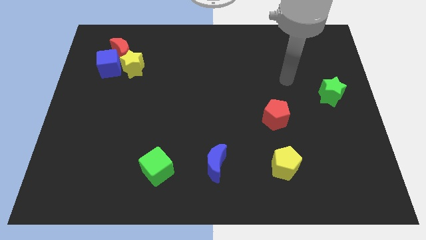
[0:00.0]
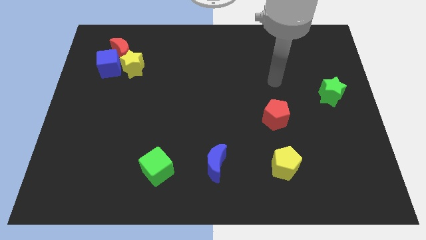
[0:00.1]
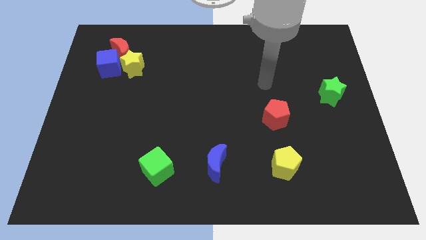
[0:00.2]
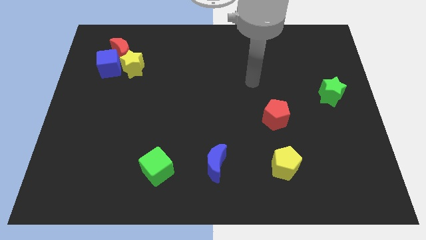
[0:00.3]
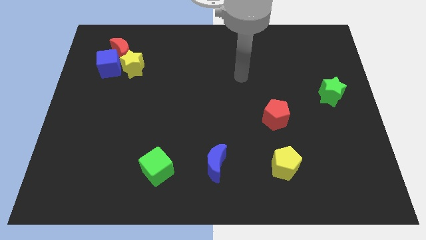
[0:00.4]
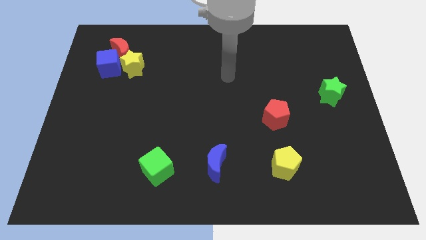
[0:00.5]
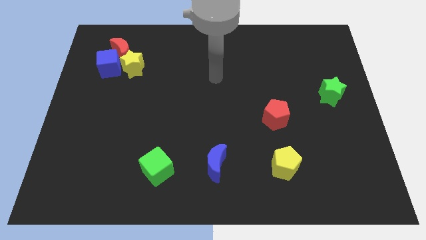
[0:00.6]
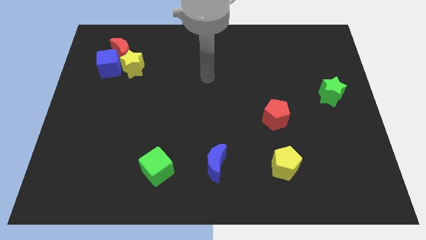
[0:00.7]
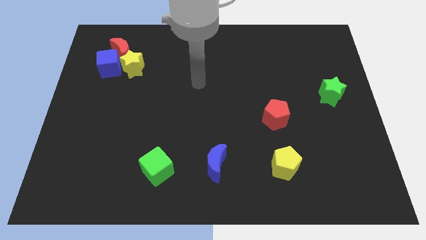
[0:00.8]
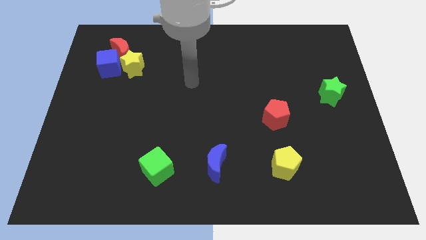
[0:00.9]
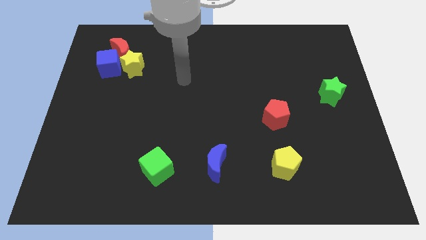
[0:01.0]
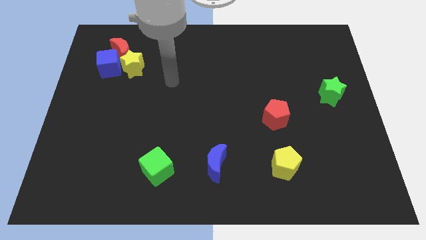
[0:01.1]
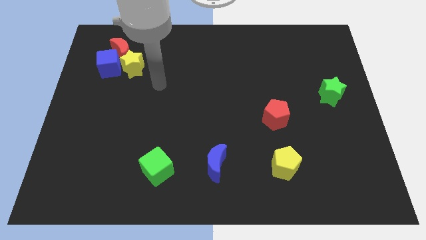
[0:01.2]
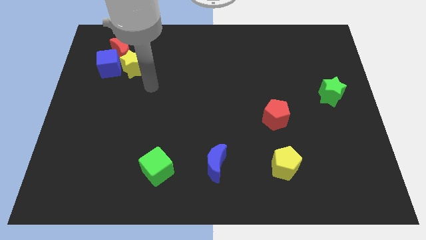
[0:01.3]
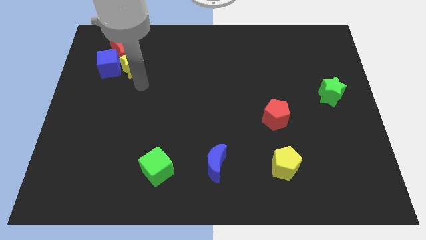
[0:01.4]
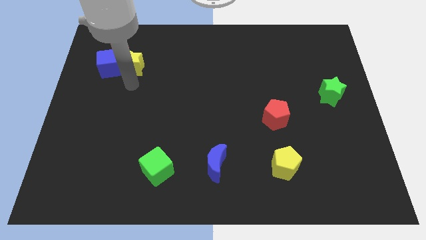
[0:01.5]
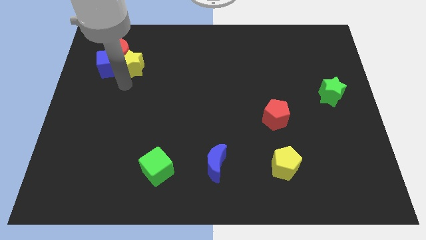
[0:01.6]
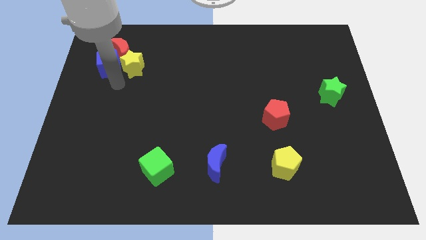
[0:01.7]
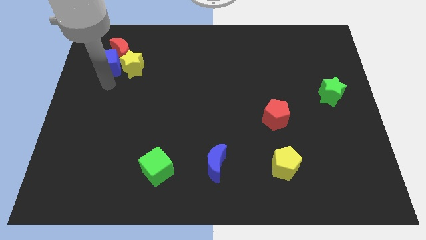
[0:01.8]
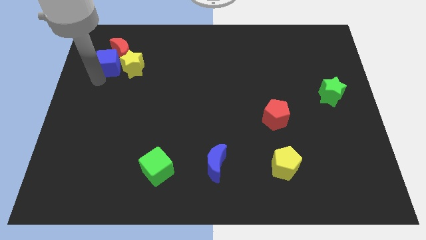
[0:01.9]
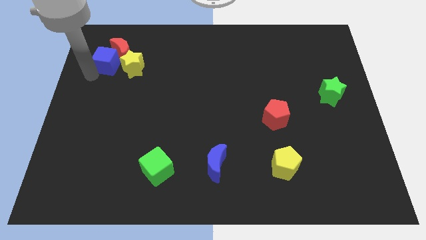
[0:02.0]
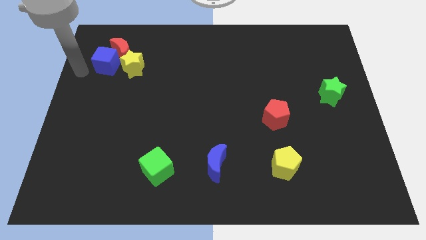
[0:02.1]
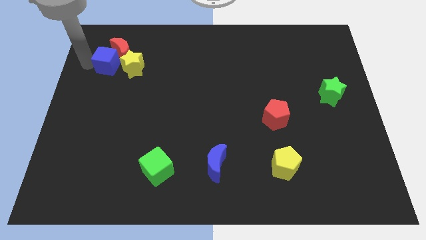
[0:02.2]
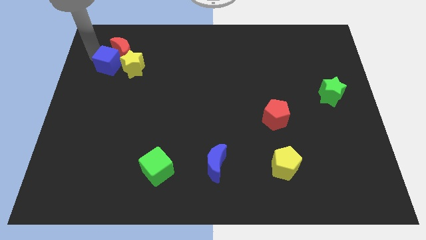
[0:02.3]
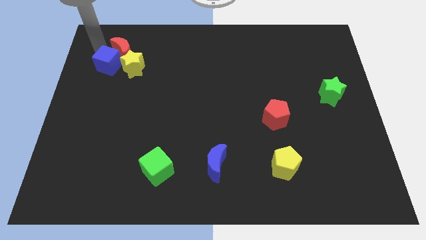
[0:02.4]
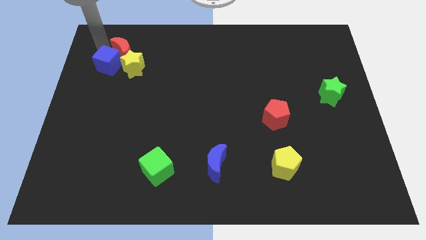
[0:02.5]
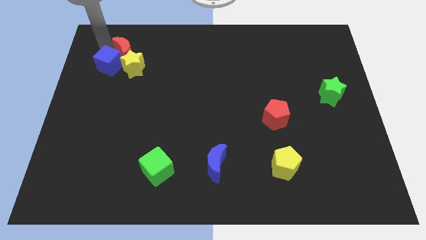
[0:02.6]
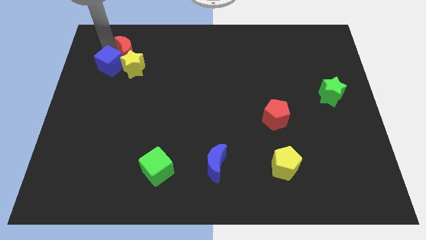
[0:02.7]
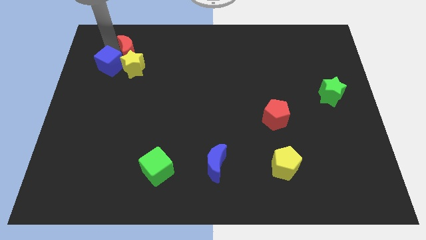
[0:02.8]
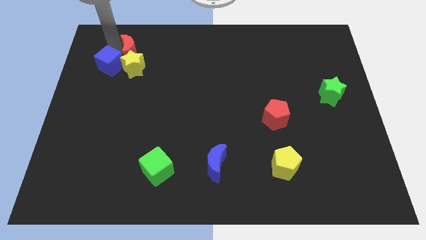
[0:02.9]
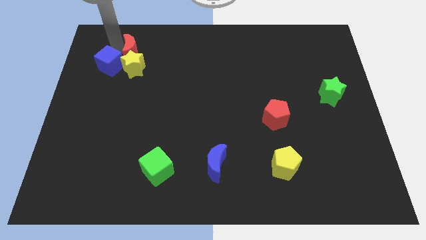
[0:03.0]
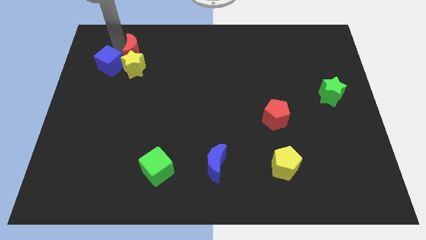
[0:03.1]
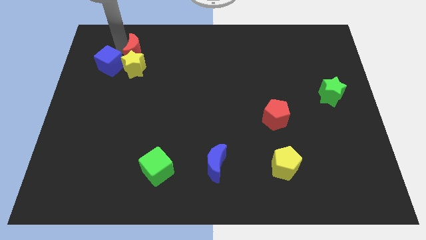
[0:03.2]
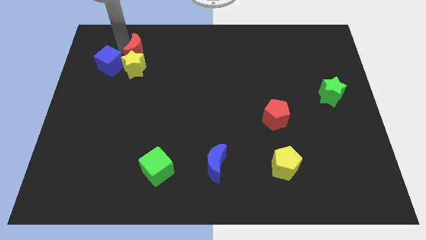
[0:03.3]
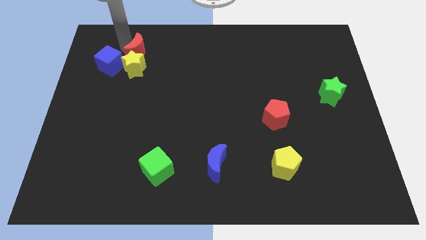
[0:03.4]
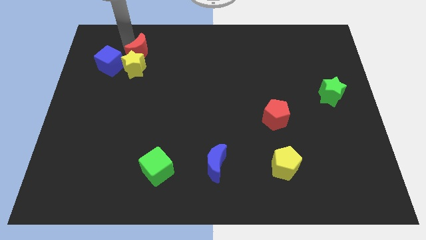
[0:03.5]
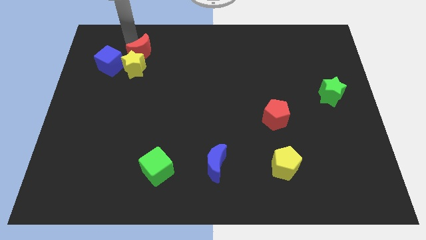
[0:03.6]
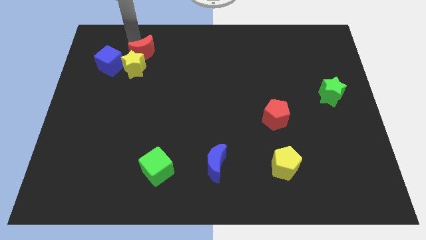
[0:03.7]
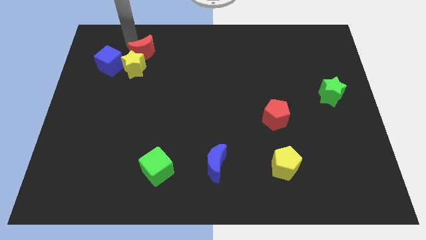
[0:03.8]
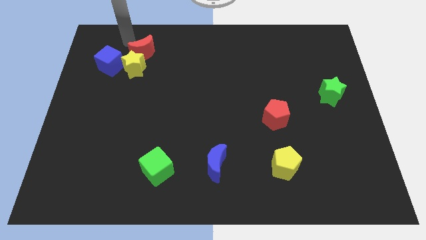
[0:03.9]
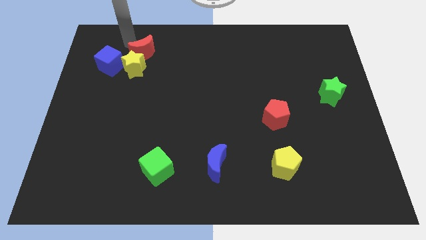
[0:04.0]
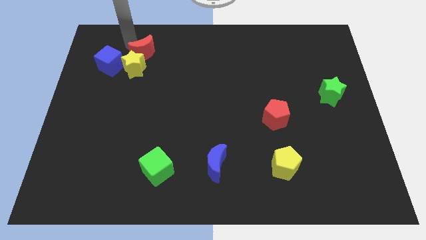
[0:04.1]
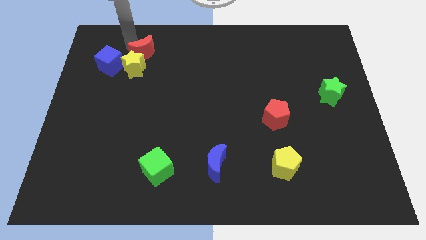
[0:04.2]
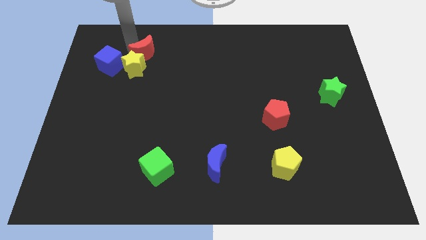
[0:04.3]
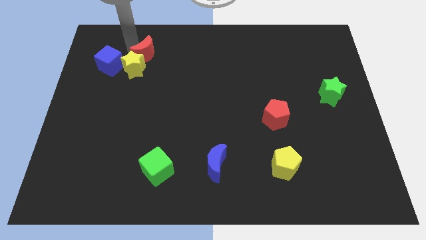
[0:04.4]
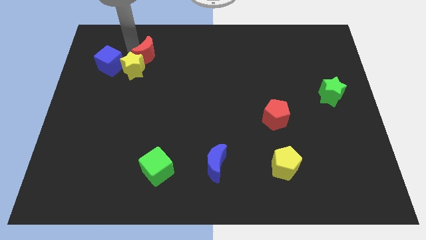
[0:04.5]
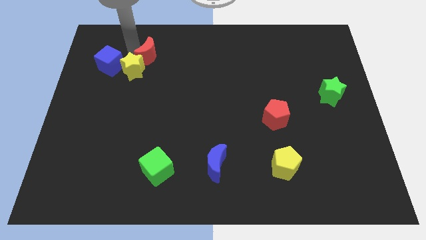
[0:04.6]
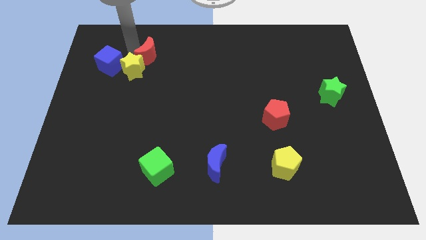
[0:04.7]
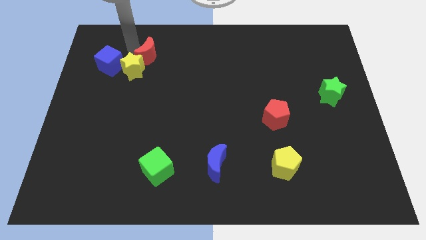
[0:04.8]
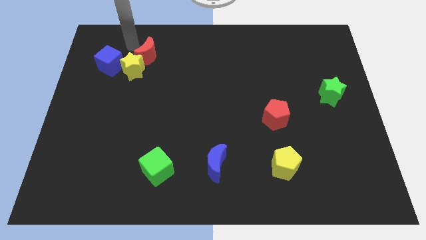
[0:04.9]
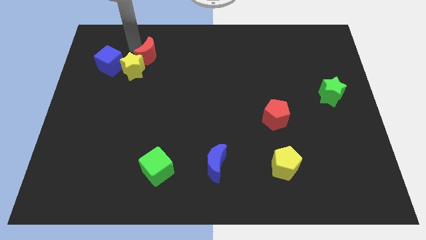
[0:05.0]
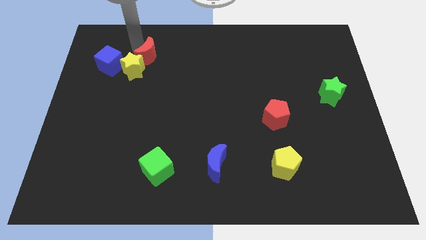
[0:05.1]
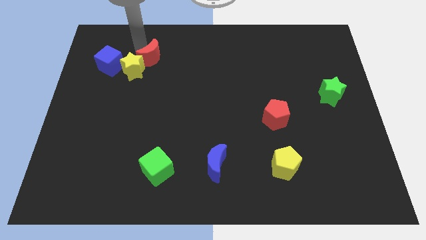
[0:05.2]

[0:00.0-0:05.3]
push the red moon to the right of the yellow star

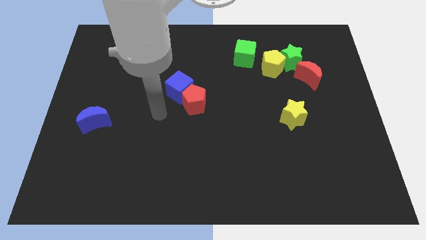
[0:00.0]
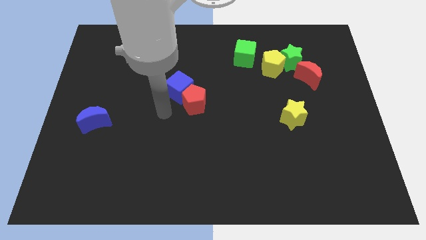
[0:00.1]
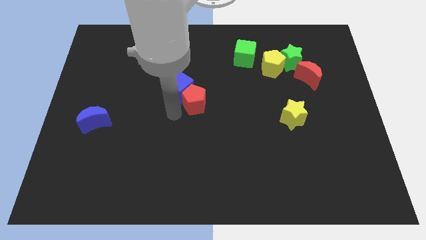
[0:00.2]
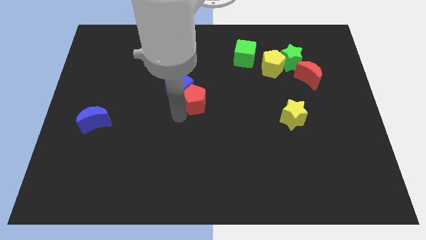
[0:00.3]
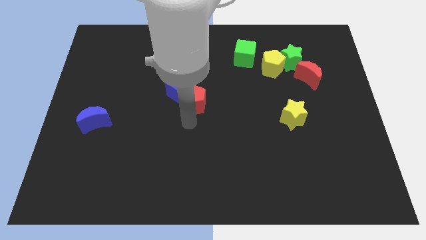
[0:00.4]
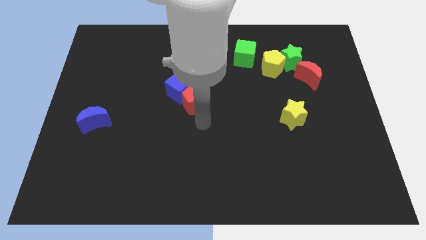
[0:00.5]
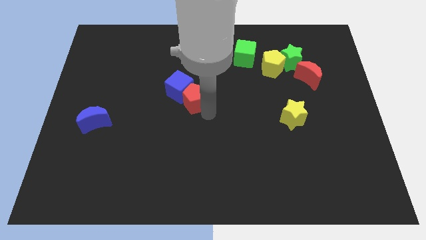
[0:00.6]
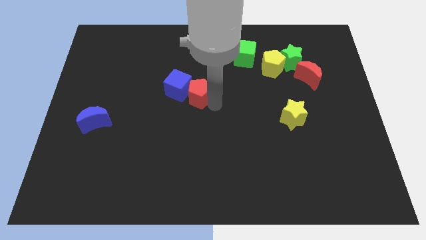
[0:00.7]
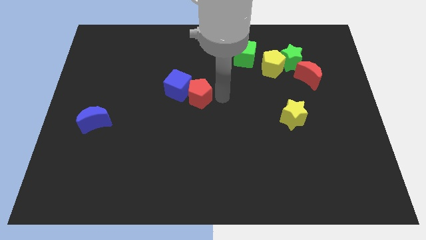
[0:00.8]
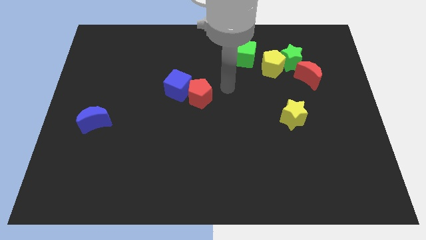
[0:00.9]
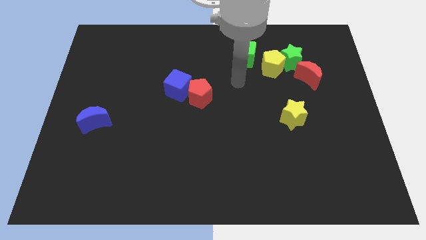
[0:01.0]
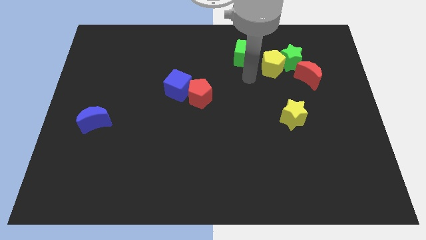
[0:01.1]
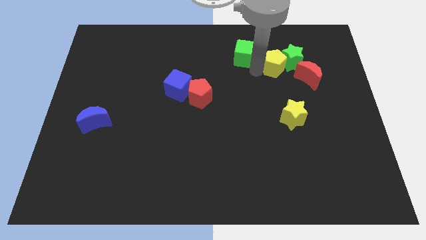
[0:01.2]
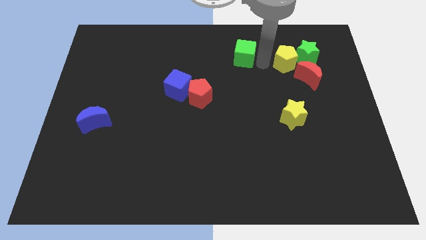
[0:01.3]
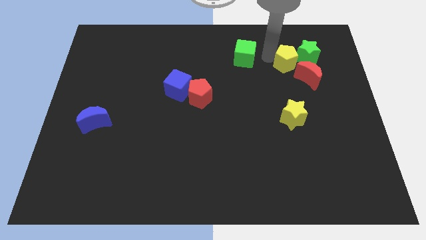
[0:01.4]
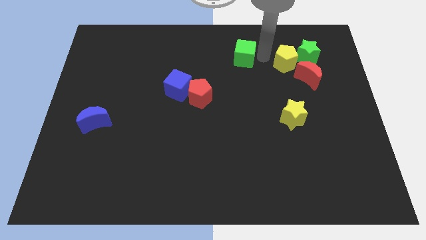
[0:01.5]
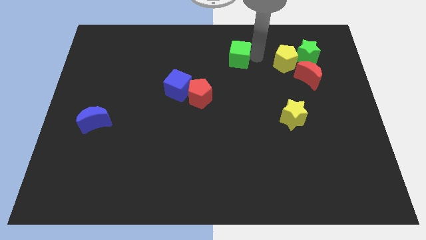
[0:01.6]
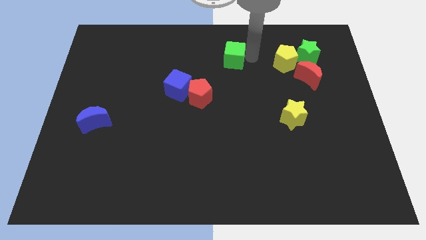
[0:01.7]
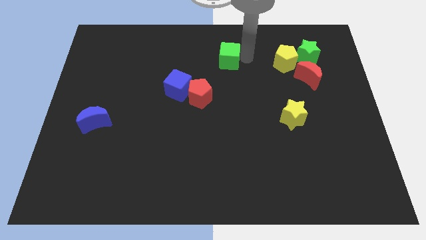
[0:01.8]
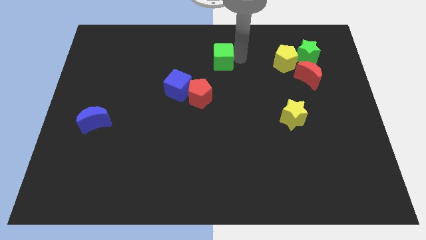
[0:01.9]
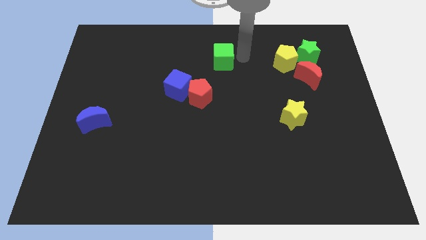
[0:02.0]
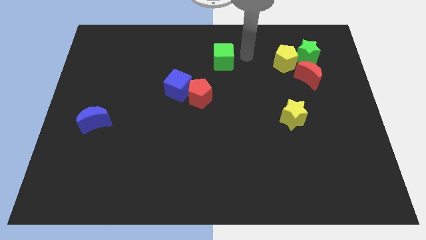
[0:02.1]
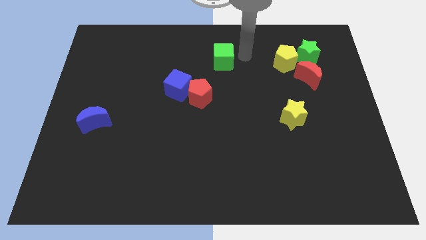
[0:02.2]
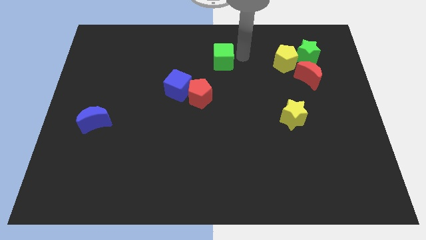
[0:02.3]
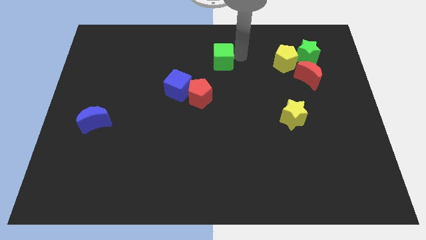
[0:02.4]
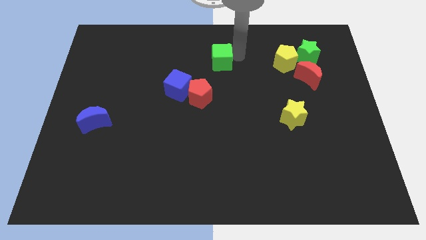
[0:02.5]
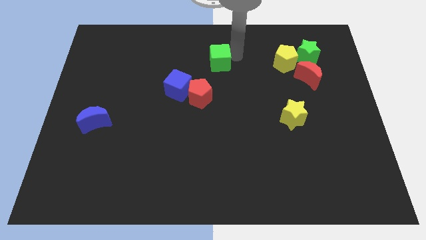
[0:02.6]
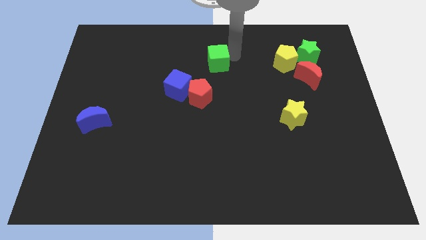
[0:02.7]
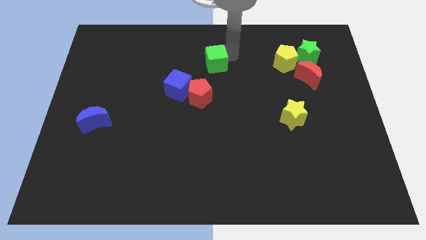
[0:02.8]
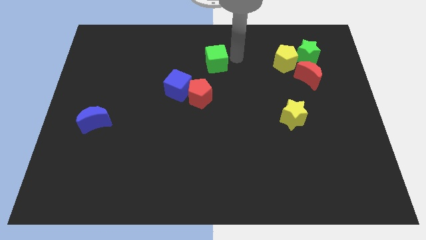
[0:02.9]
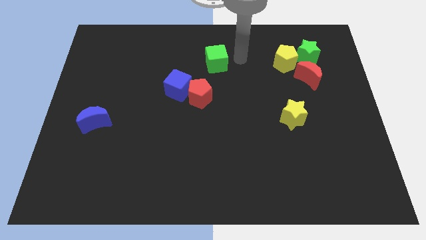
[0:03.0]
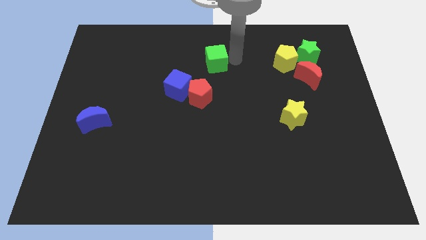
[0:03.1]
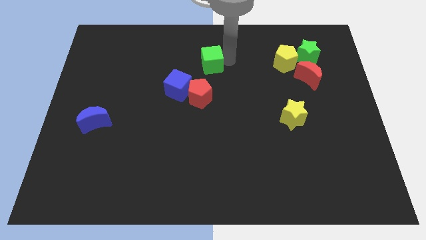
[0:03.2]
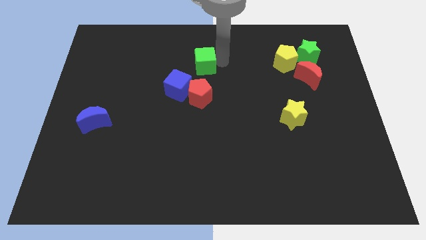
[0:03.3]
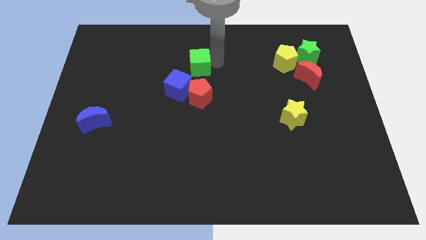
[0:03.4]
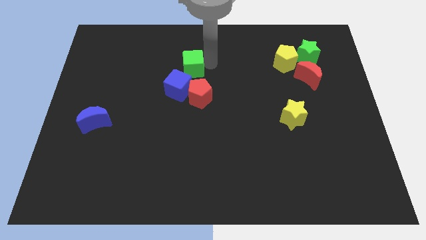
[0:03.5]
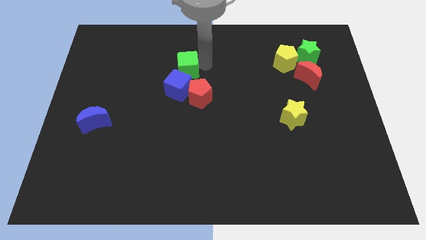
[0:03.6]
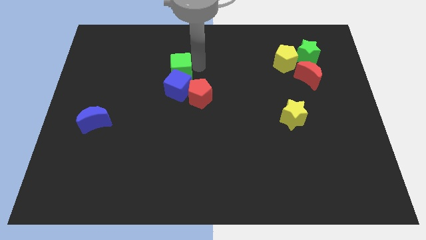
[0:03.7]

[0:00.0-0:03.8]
put the green cube diagonally up and to the left of the blue cube
